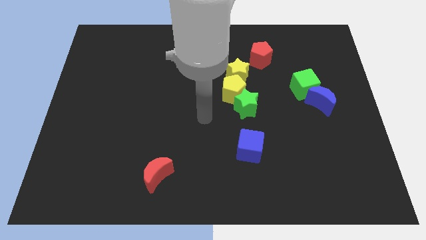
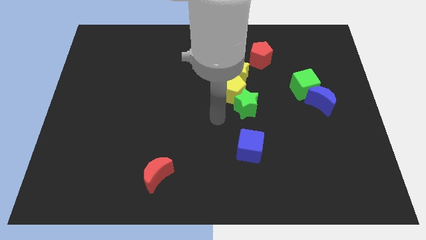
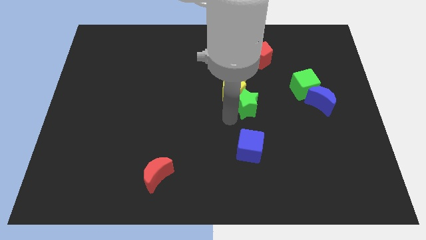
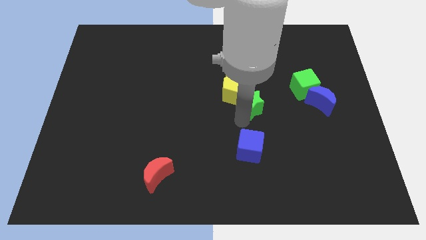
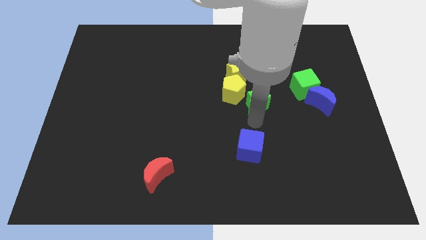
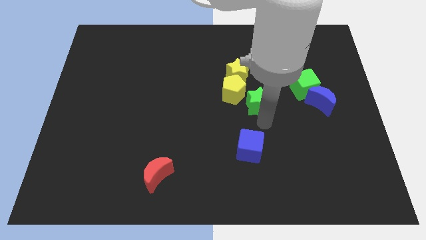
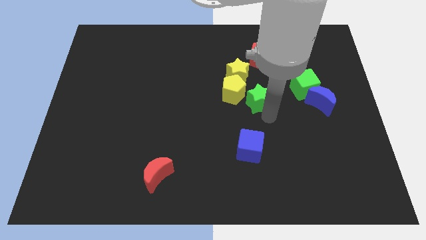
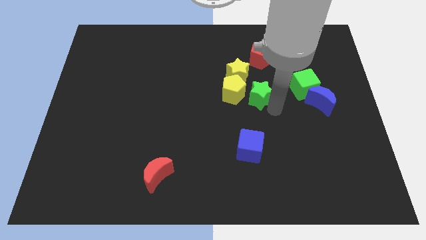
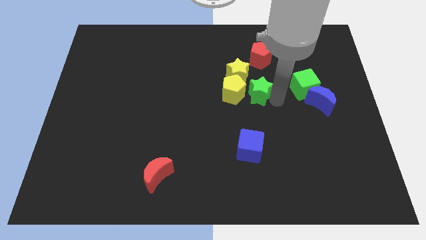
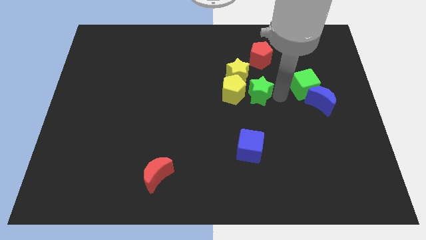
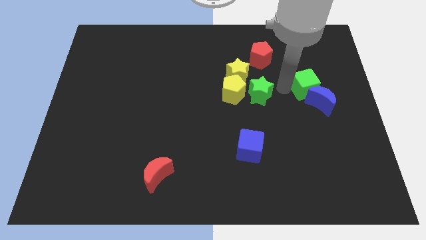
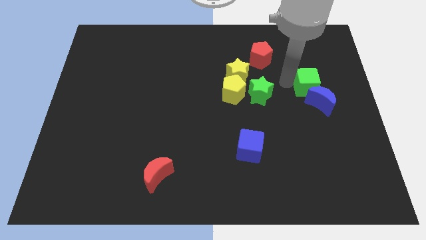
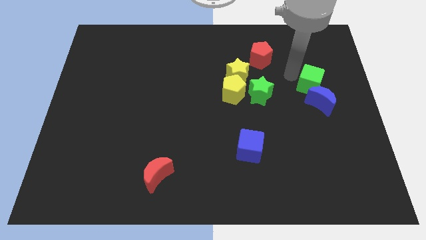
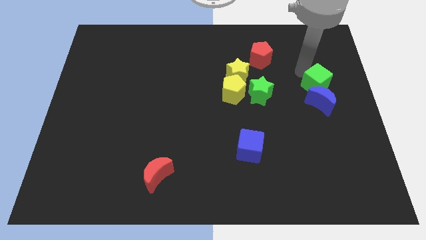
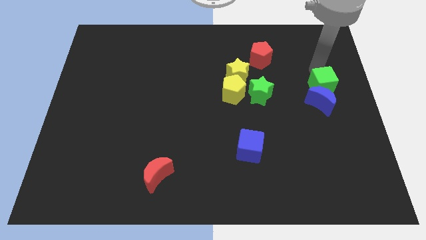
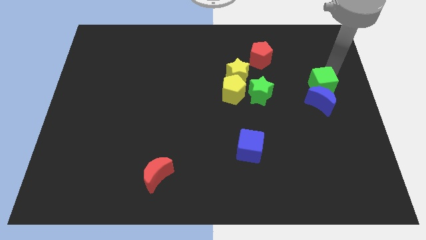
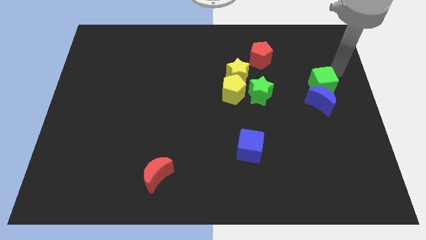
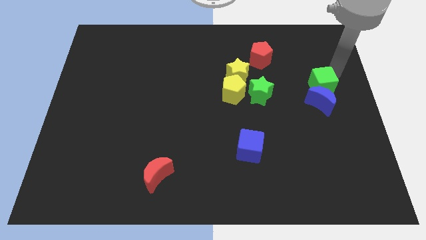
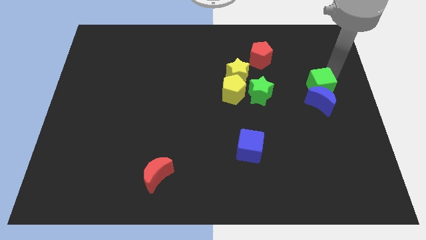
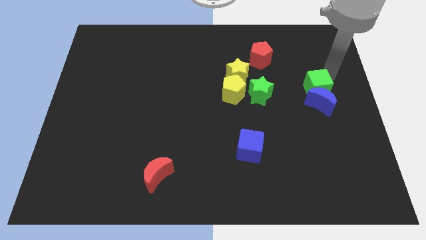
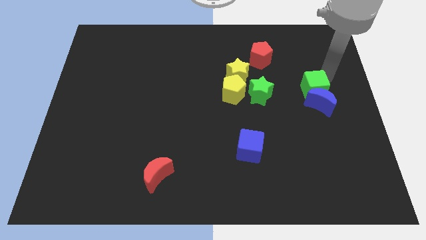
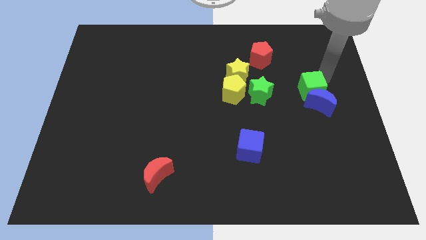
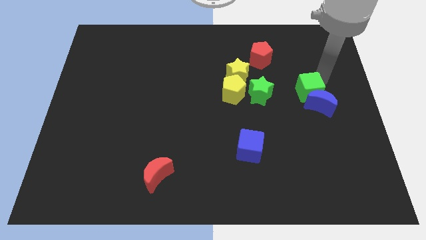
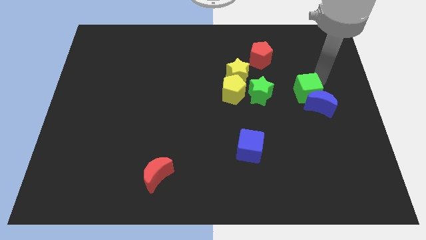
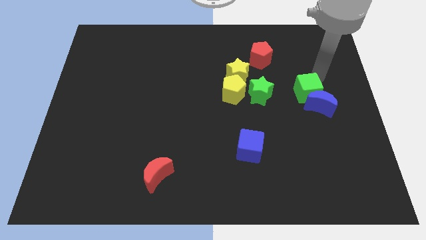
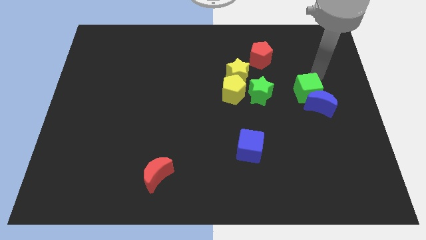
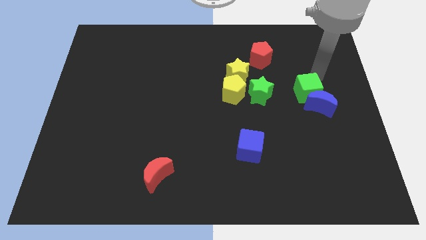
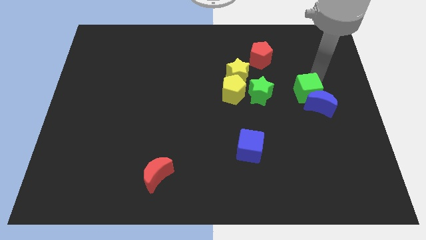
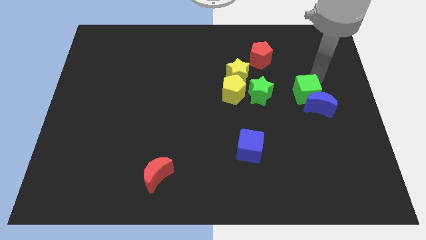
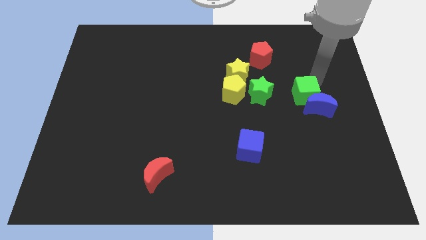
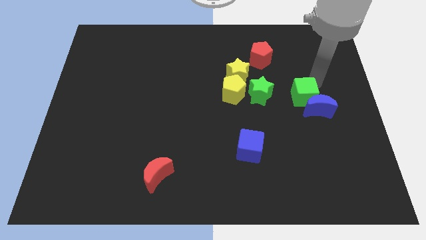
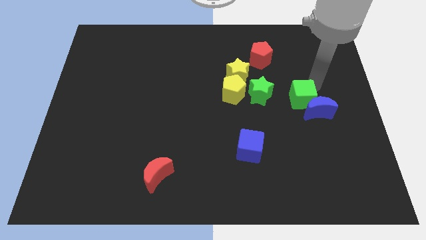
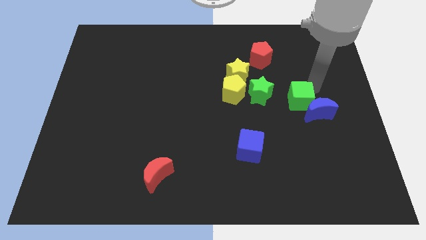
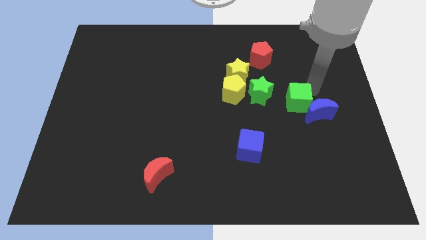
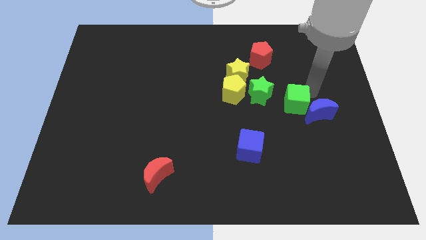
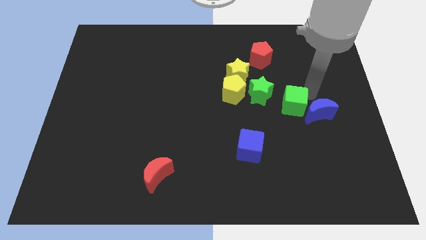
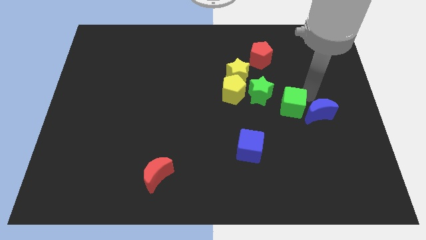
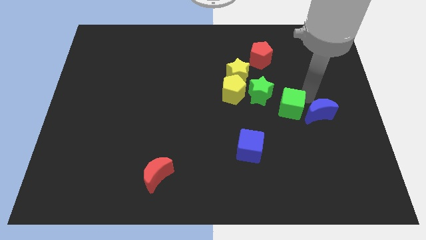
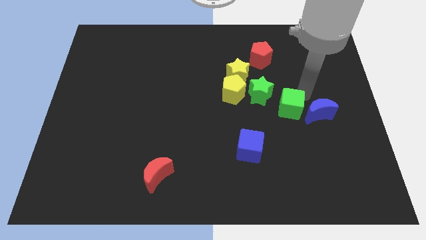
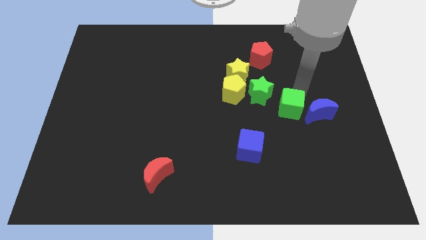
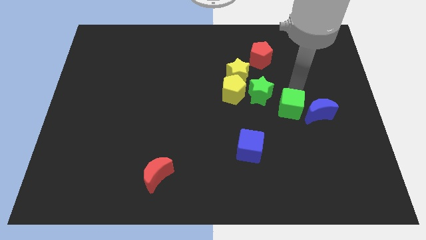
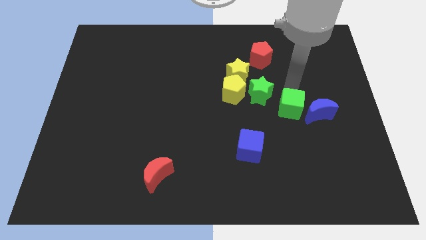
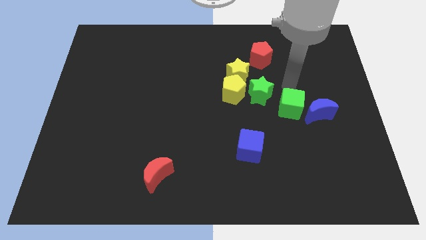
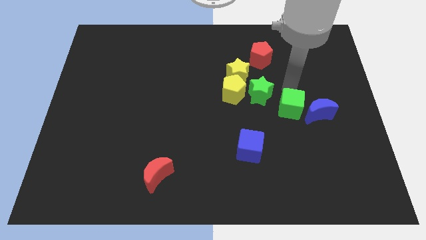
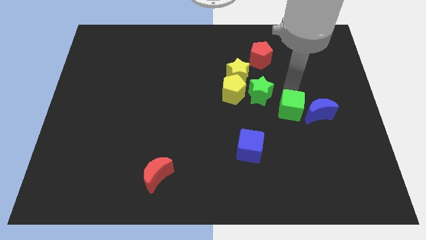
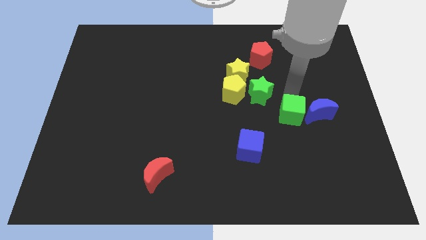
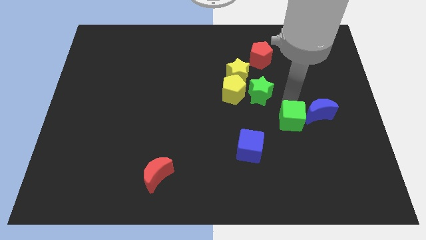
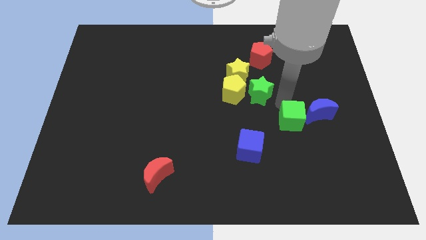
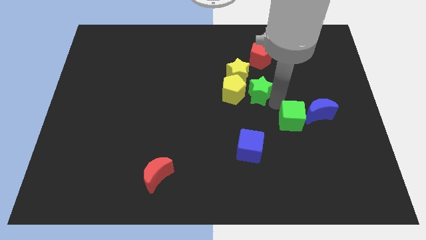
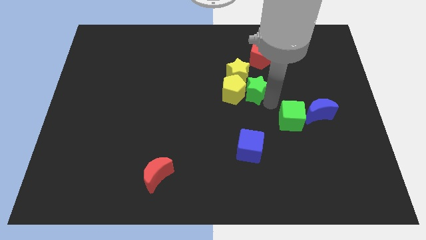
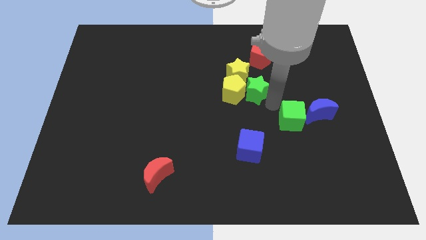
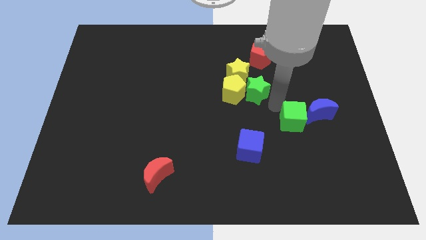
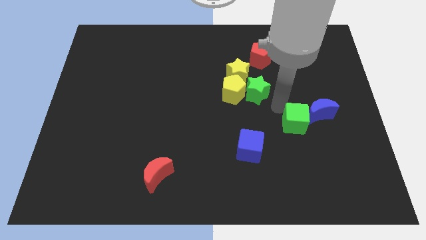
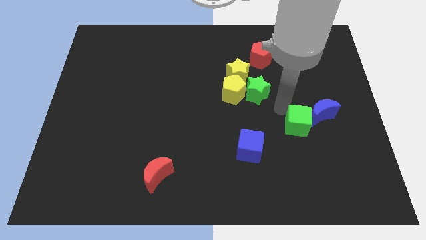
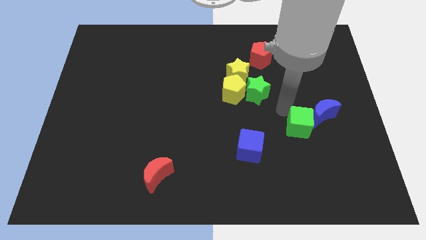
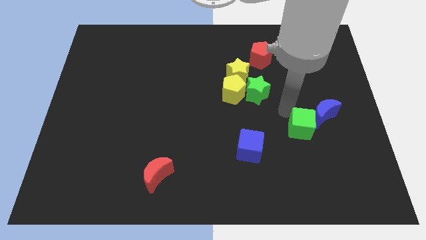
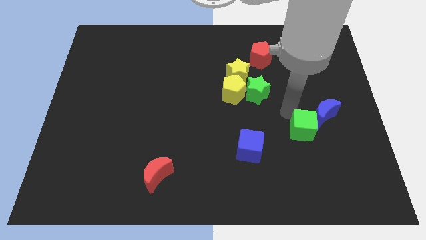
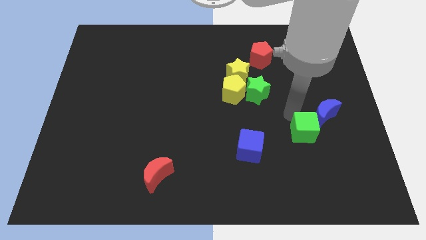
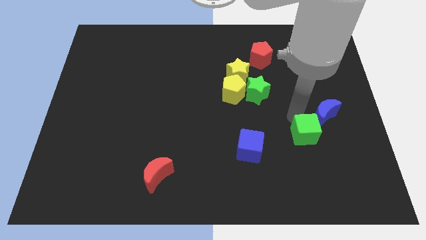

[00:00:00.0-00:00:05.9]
slide the green cube below the blue moon

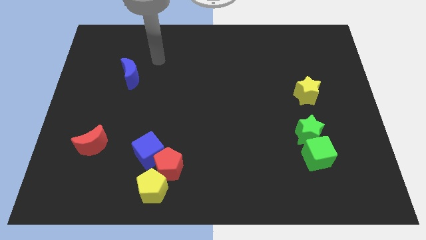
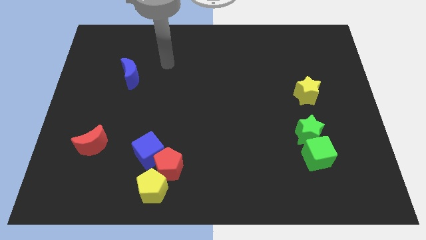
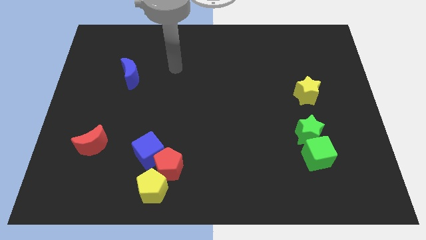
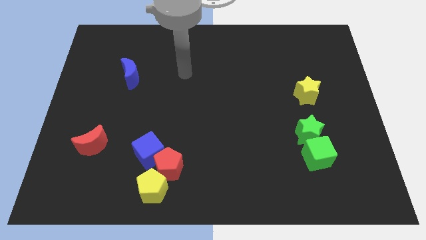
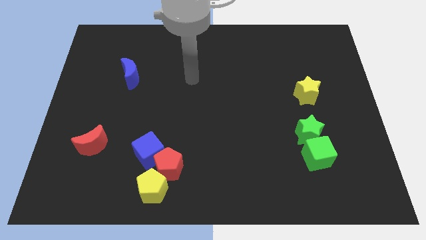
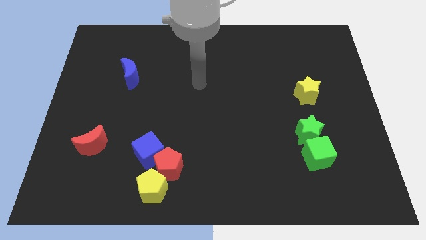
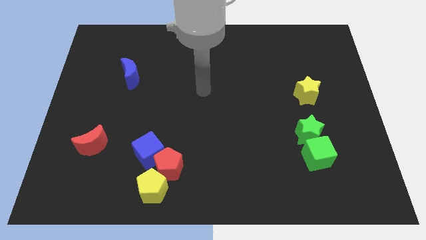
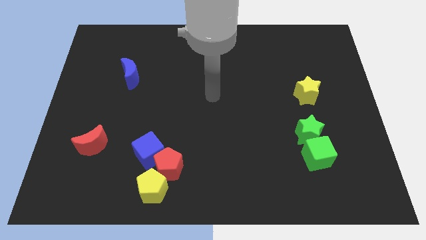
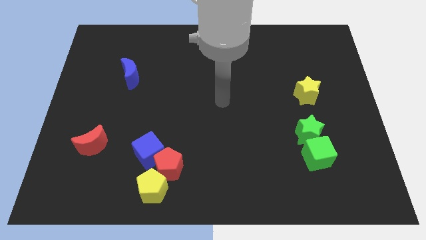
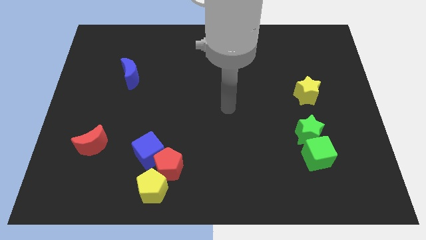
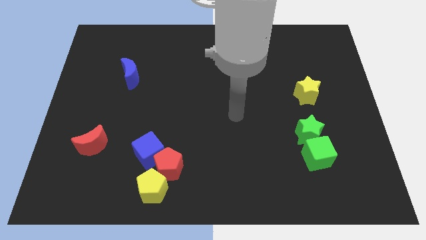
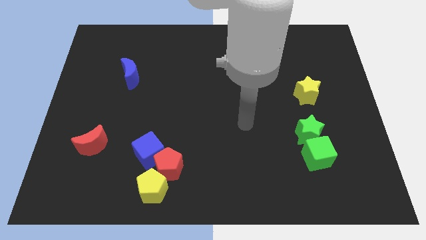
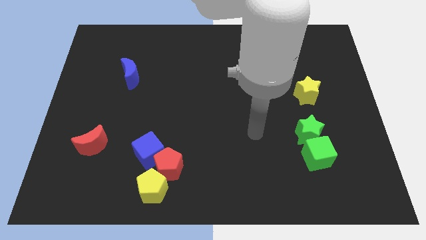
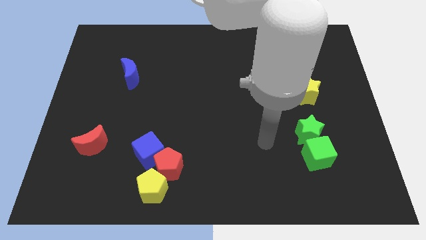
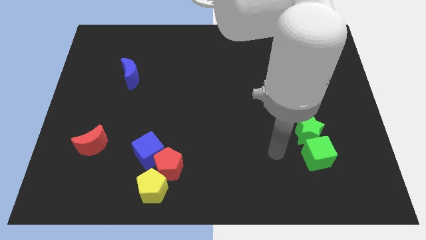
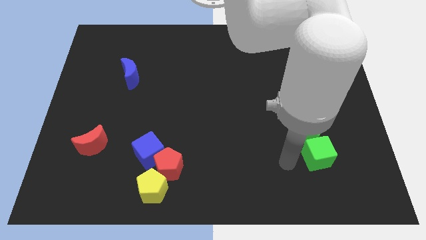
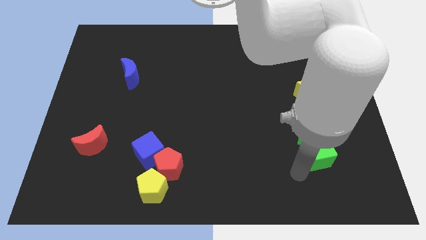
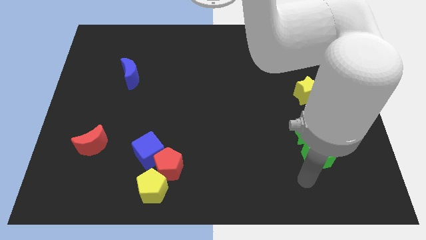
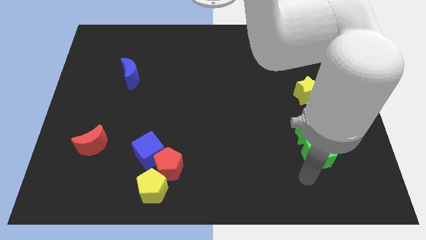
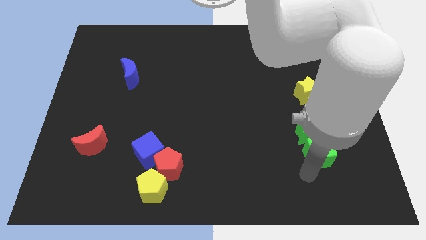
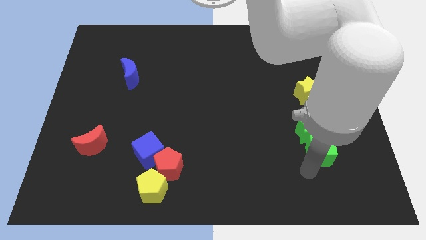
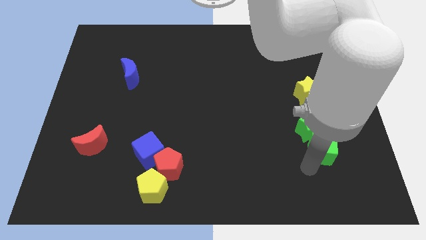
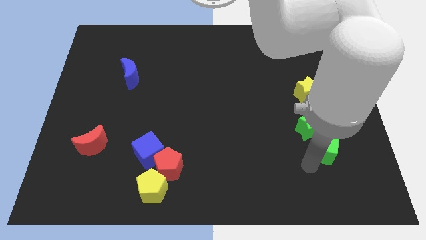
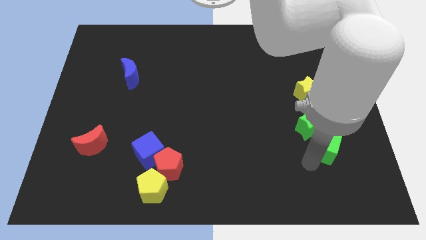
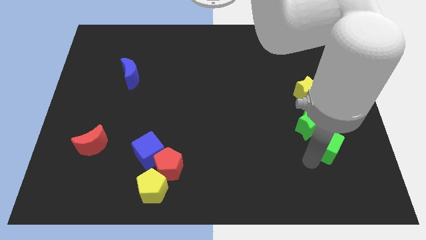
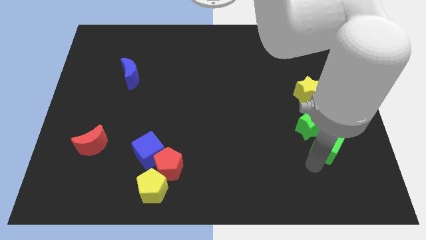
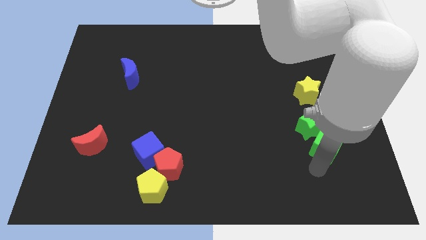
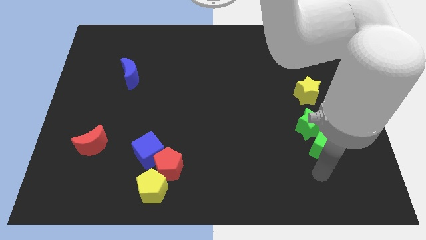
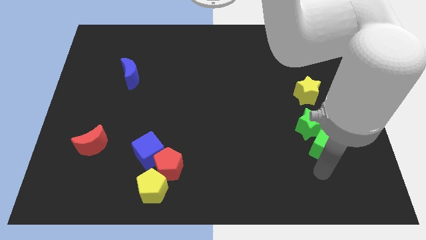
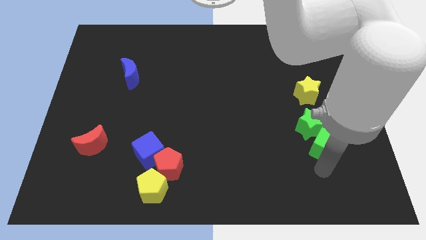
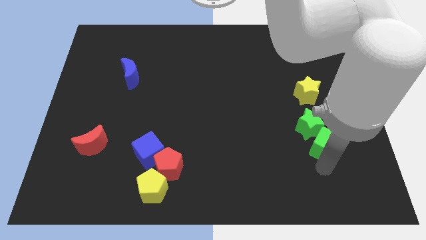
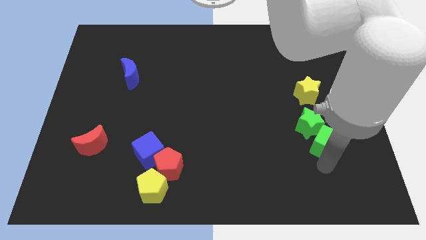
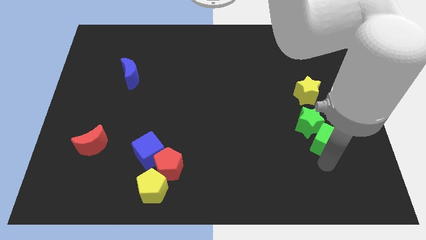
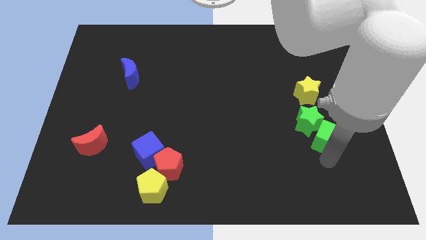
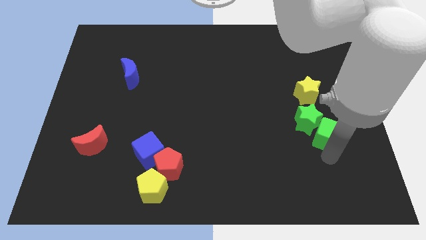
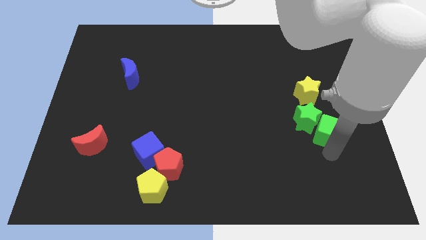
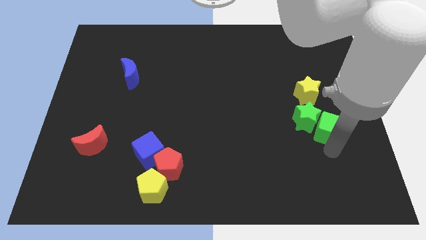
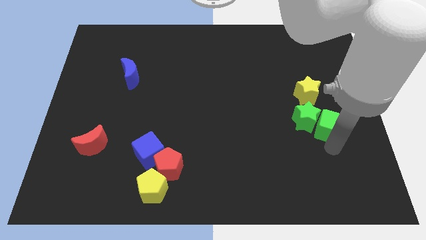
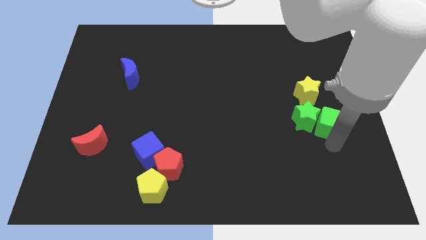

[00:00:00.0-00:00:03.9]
put the green cube to the bottom right of the yellow star
